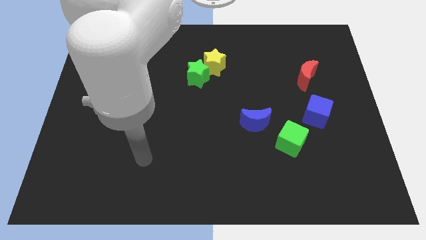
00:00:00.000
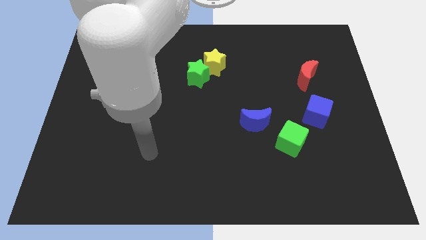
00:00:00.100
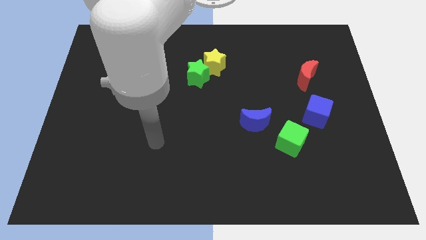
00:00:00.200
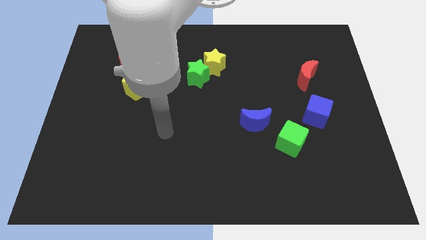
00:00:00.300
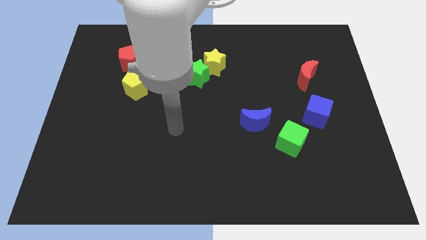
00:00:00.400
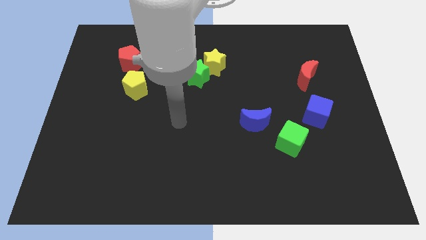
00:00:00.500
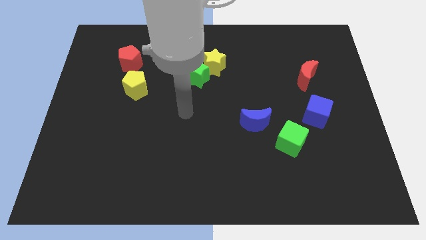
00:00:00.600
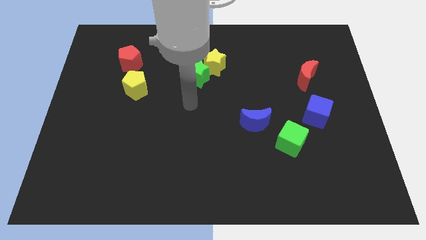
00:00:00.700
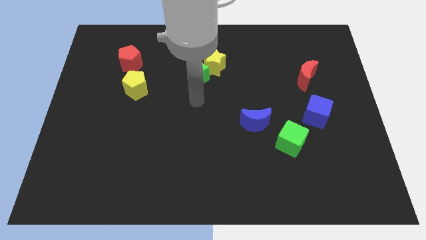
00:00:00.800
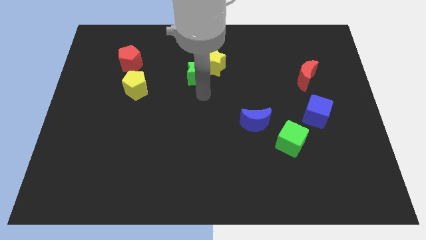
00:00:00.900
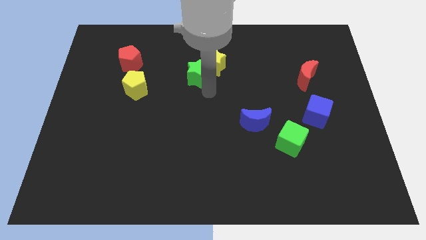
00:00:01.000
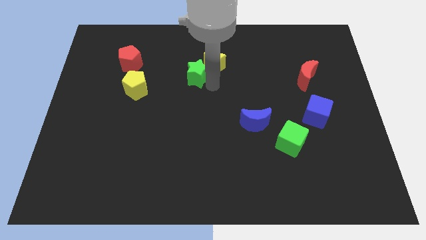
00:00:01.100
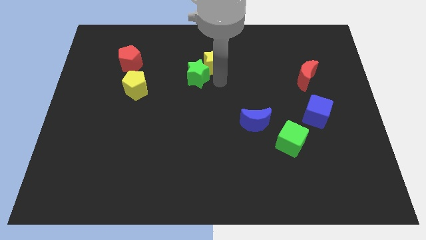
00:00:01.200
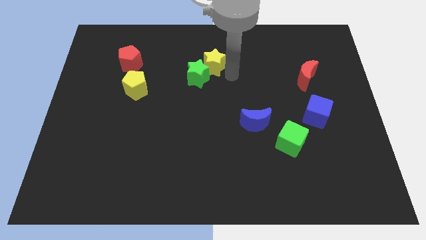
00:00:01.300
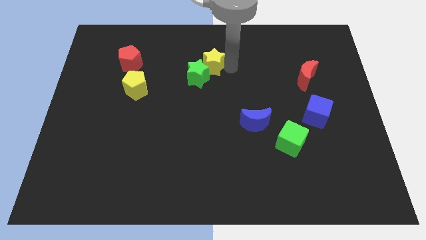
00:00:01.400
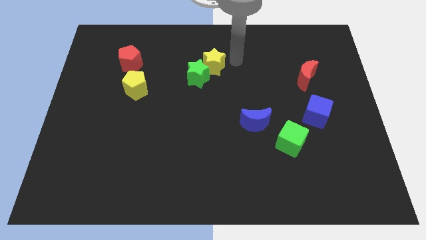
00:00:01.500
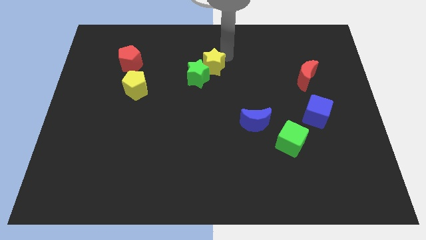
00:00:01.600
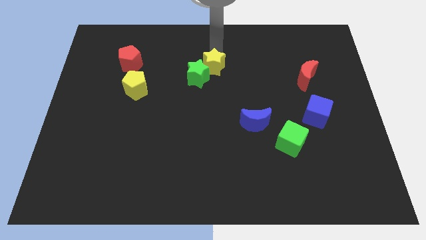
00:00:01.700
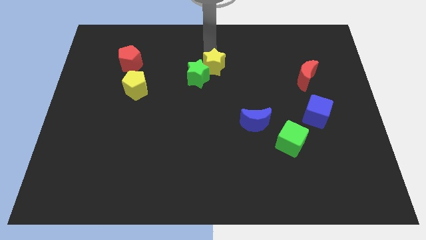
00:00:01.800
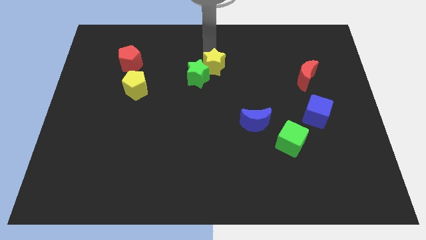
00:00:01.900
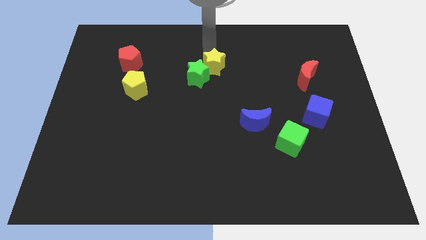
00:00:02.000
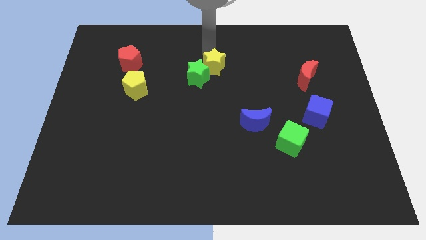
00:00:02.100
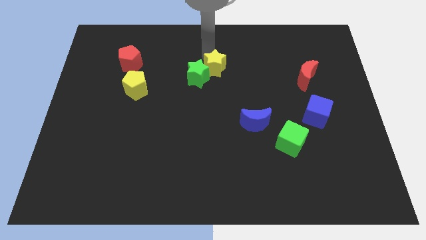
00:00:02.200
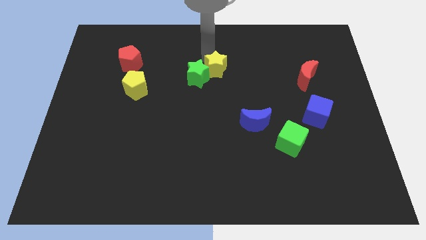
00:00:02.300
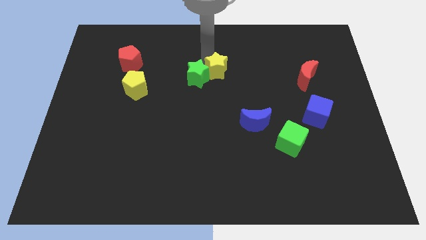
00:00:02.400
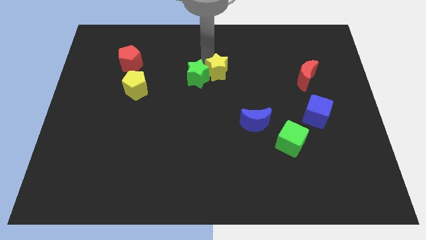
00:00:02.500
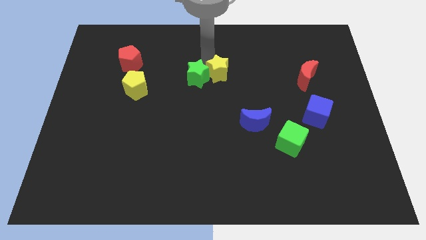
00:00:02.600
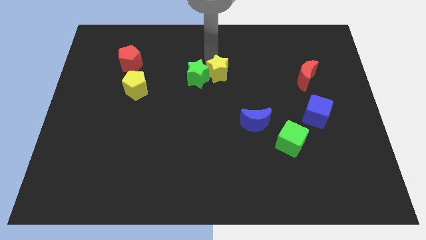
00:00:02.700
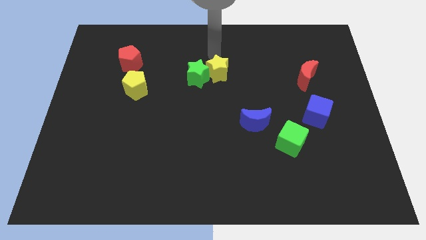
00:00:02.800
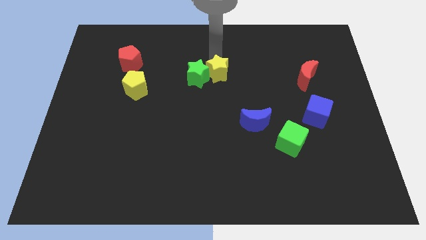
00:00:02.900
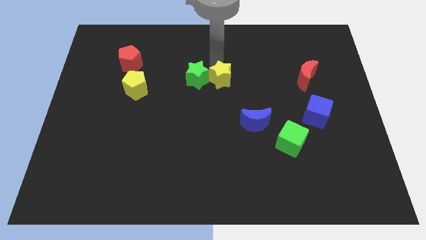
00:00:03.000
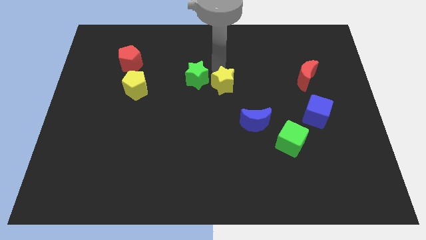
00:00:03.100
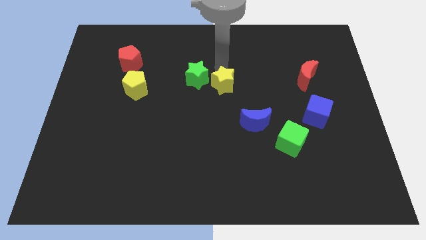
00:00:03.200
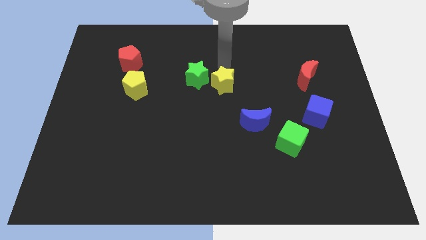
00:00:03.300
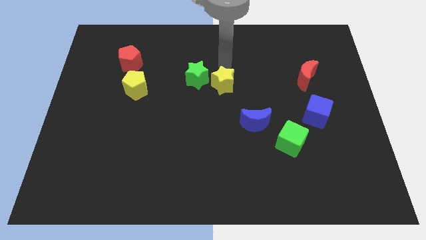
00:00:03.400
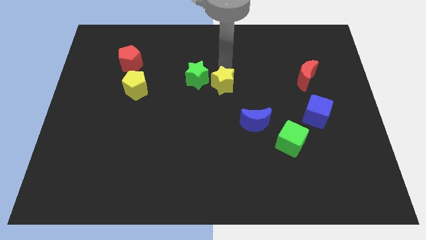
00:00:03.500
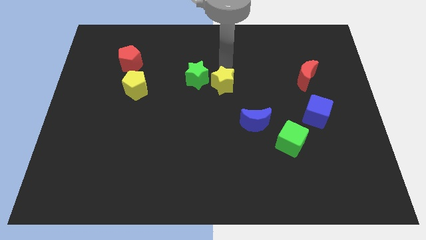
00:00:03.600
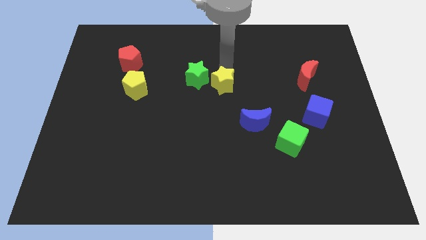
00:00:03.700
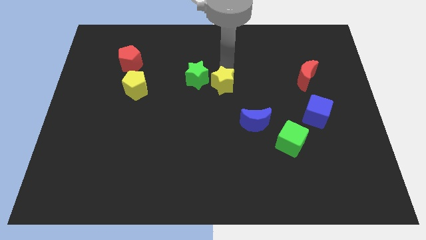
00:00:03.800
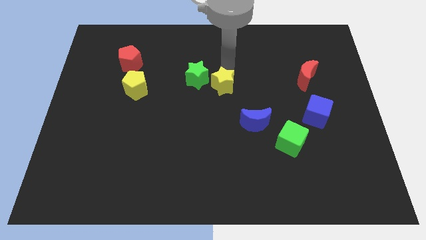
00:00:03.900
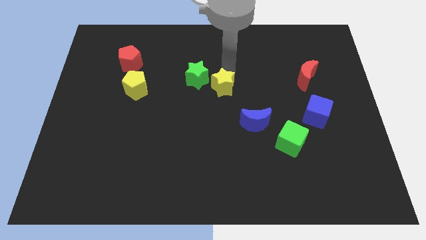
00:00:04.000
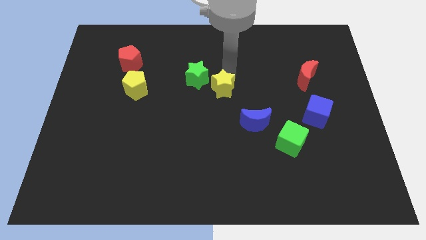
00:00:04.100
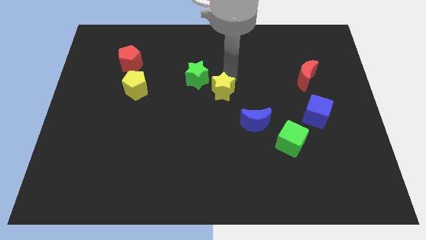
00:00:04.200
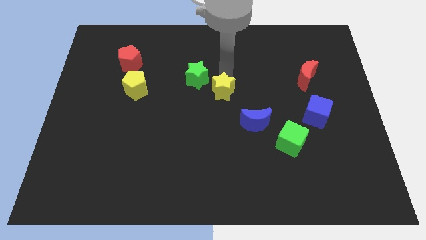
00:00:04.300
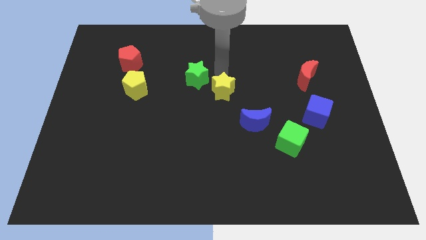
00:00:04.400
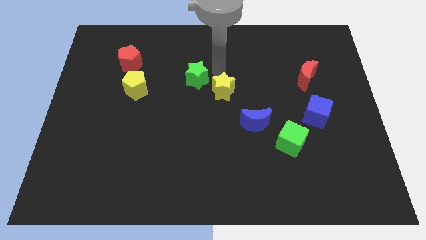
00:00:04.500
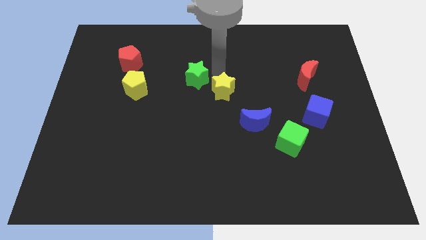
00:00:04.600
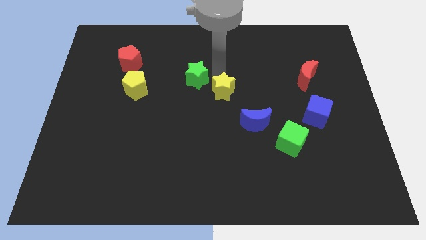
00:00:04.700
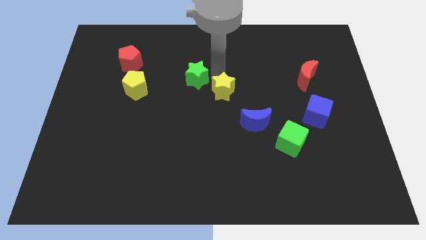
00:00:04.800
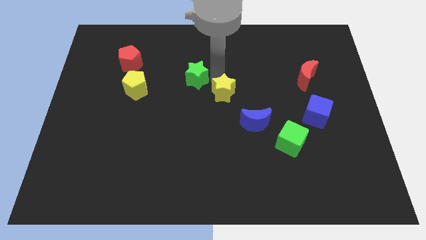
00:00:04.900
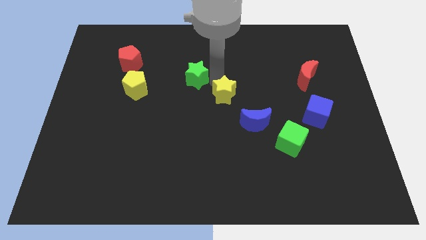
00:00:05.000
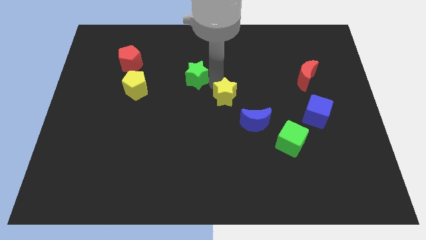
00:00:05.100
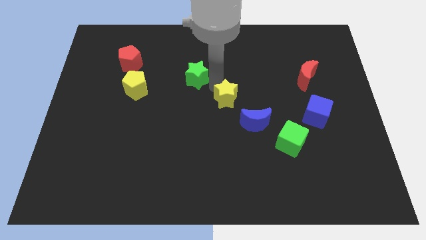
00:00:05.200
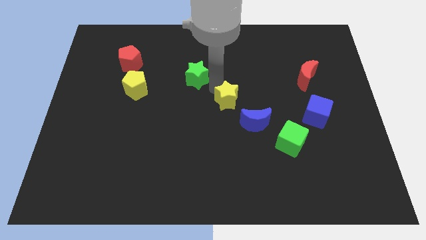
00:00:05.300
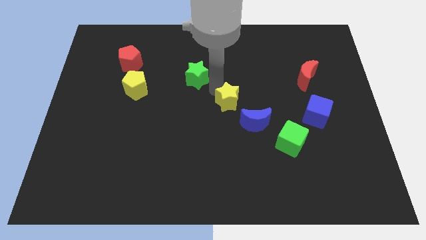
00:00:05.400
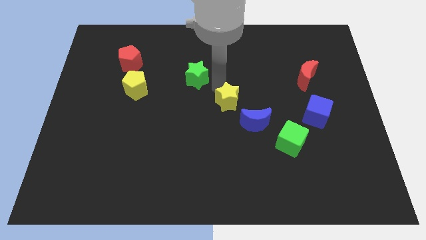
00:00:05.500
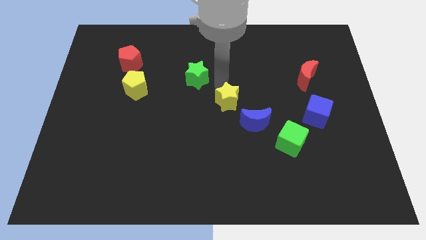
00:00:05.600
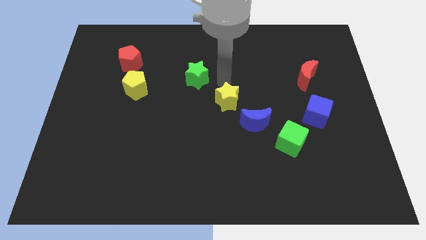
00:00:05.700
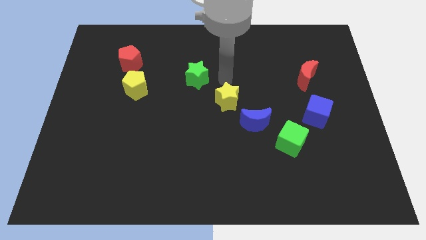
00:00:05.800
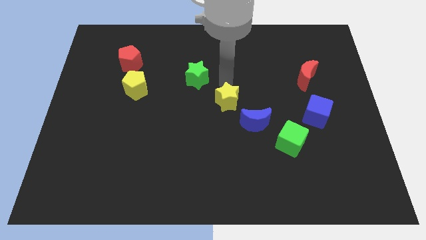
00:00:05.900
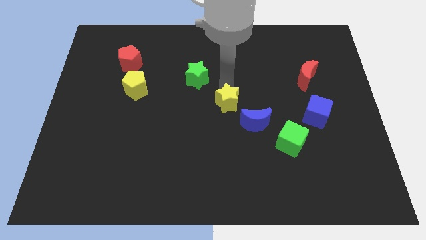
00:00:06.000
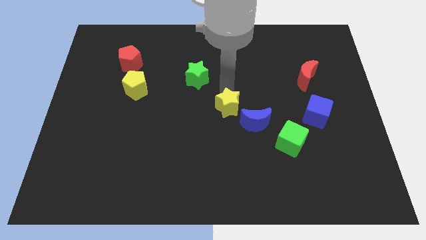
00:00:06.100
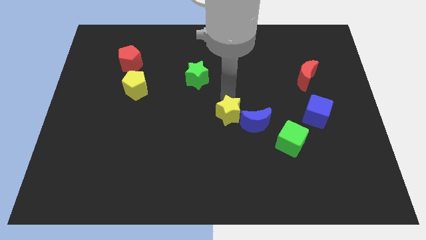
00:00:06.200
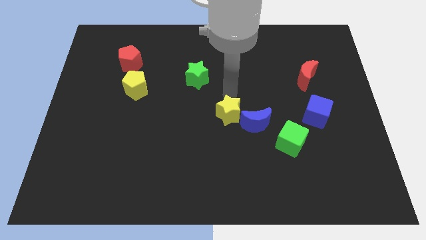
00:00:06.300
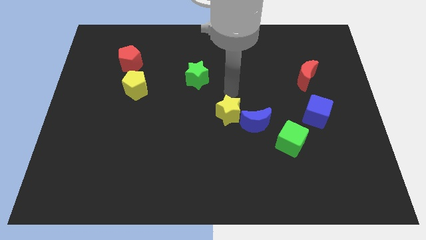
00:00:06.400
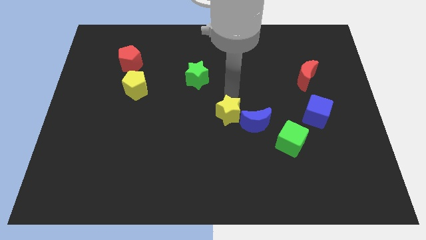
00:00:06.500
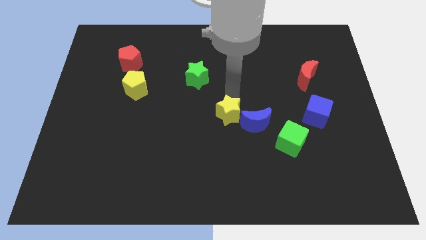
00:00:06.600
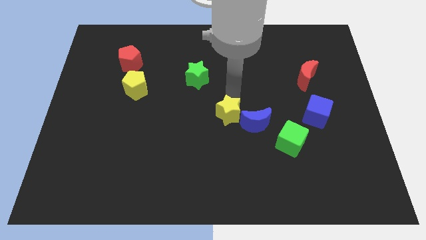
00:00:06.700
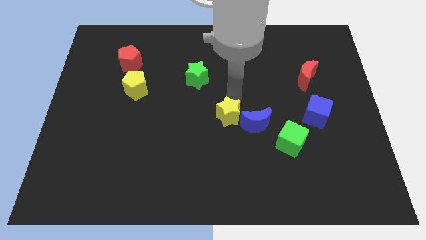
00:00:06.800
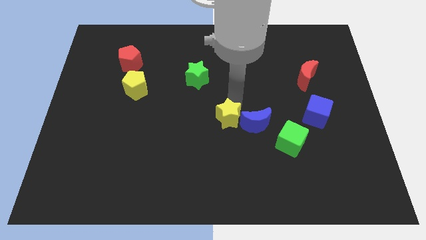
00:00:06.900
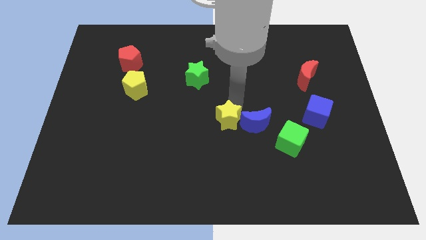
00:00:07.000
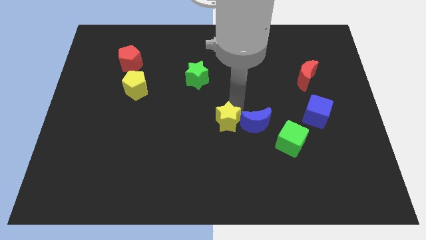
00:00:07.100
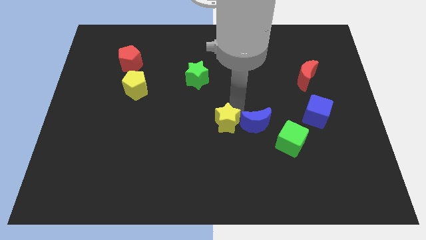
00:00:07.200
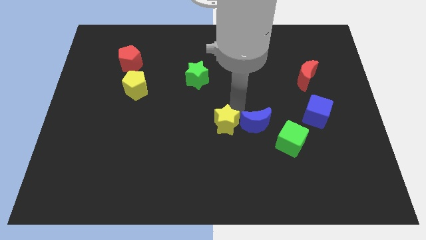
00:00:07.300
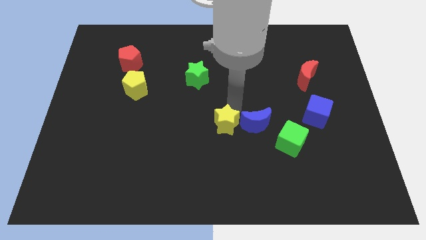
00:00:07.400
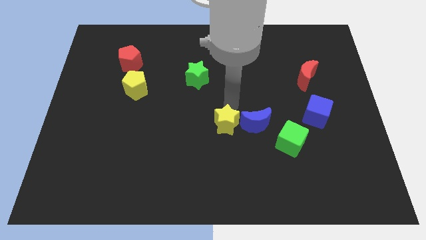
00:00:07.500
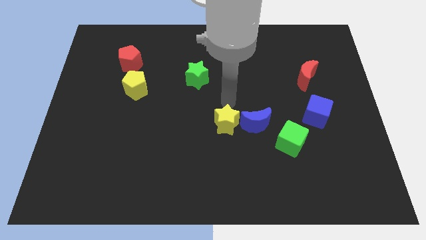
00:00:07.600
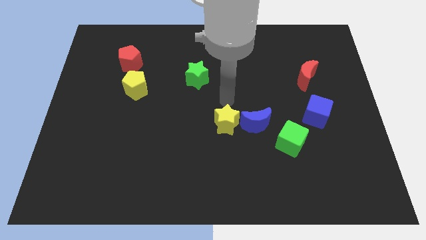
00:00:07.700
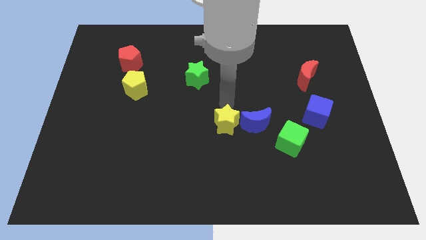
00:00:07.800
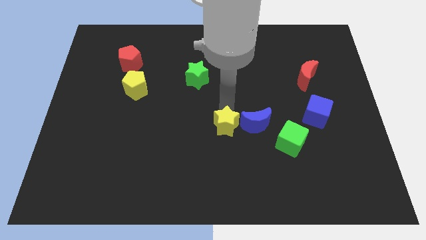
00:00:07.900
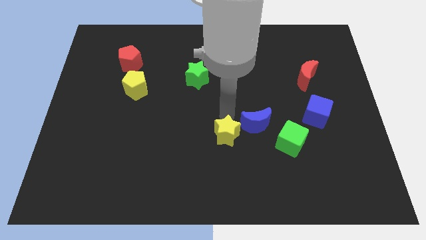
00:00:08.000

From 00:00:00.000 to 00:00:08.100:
move the yellow star down
